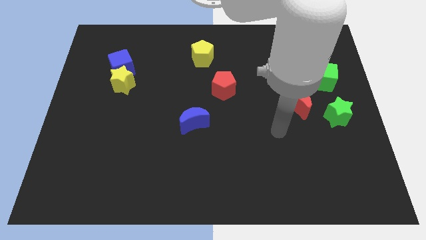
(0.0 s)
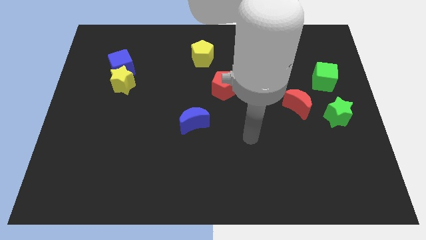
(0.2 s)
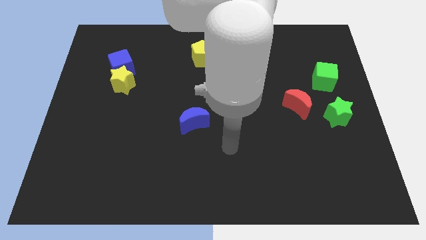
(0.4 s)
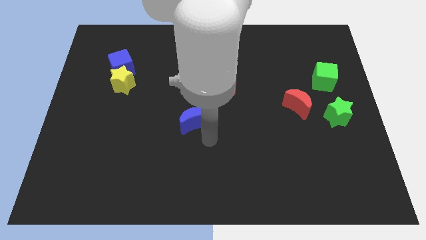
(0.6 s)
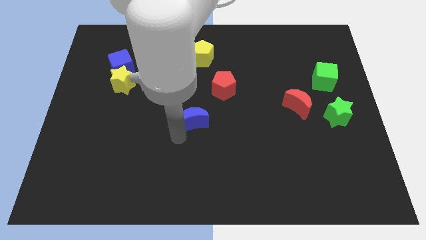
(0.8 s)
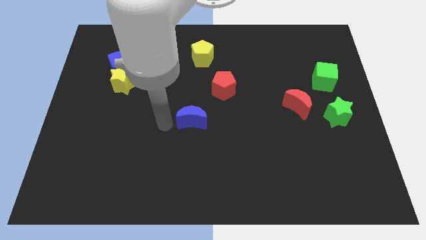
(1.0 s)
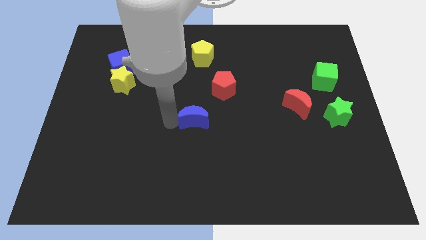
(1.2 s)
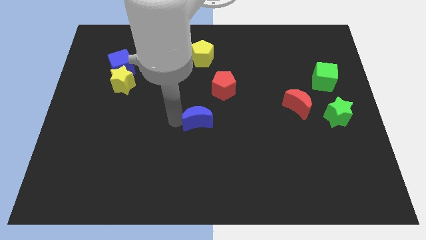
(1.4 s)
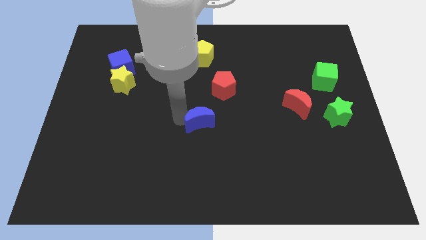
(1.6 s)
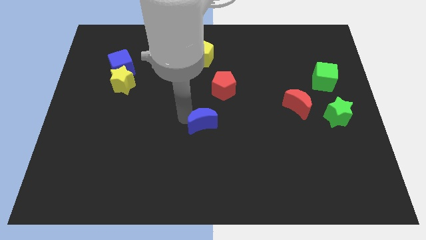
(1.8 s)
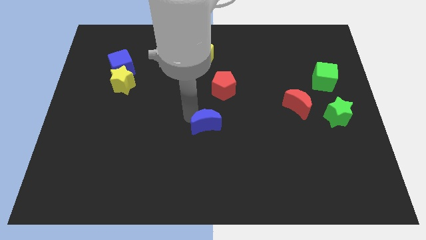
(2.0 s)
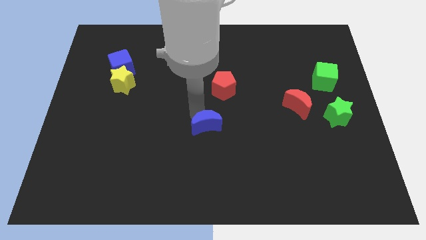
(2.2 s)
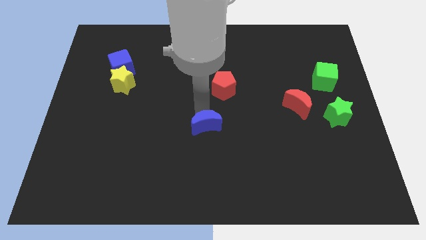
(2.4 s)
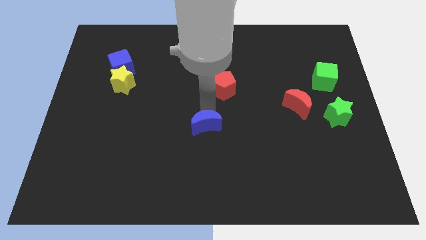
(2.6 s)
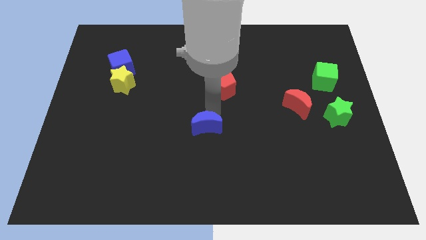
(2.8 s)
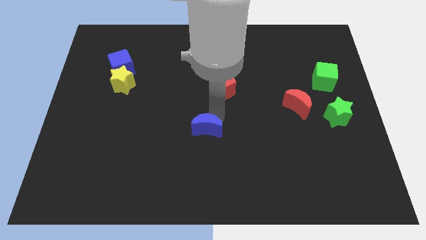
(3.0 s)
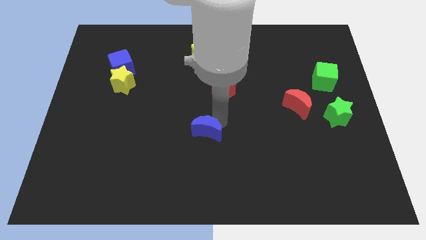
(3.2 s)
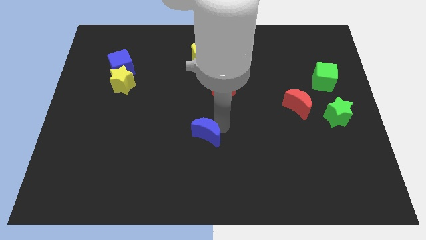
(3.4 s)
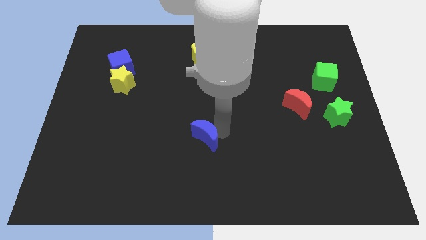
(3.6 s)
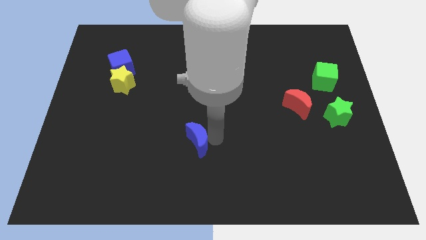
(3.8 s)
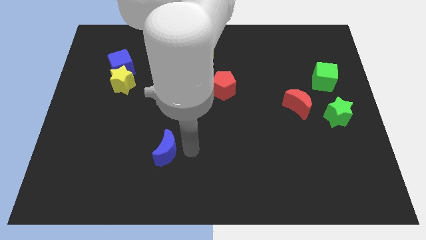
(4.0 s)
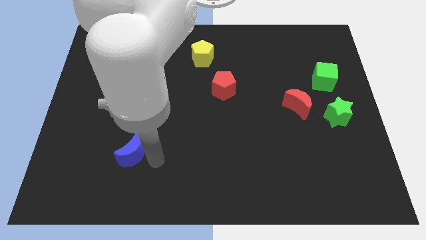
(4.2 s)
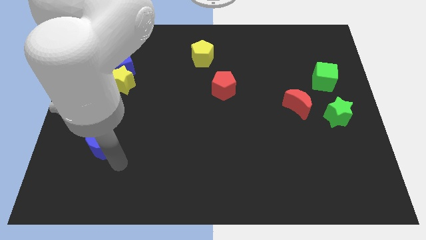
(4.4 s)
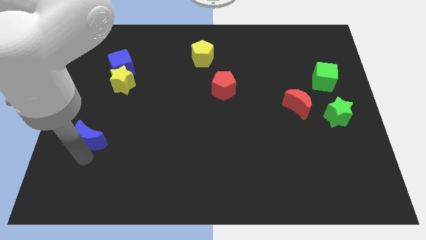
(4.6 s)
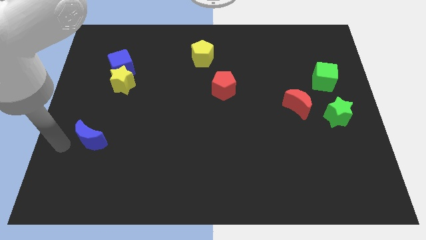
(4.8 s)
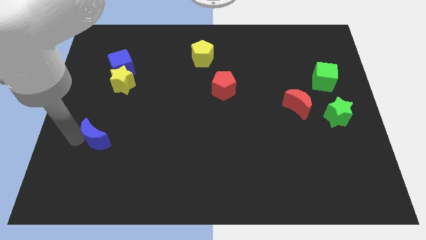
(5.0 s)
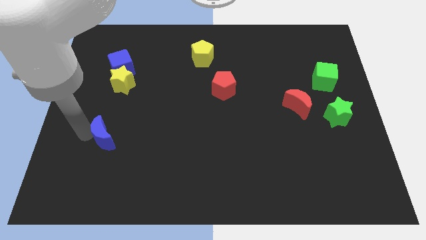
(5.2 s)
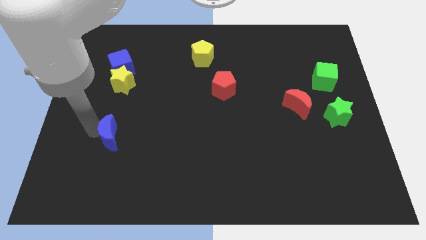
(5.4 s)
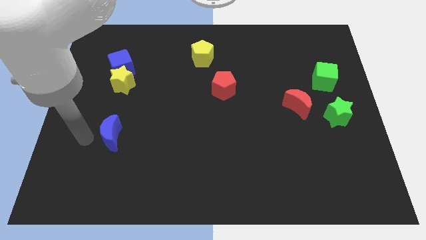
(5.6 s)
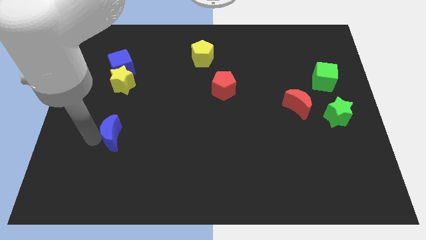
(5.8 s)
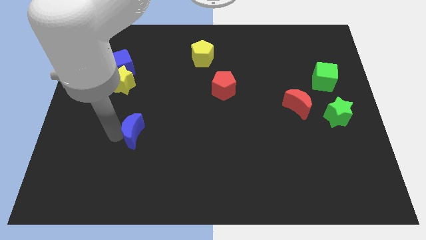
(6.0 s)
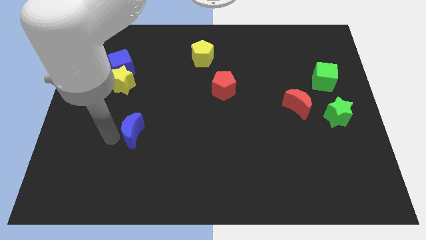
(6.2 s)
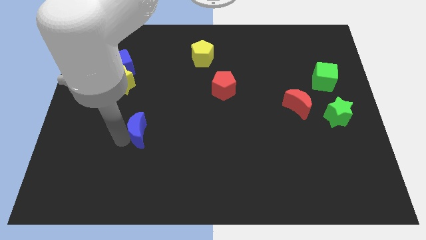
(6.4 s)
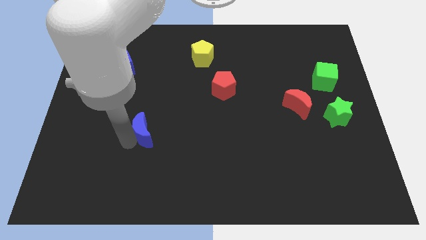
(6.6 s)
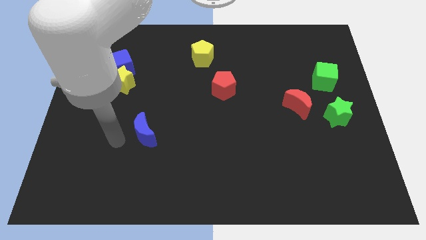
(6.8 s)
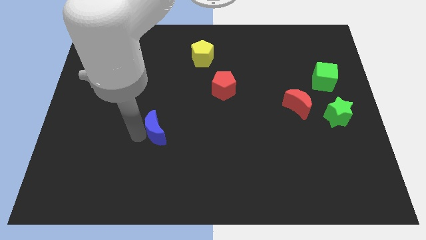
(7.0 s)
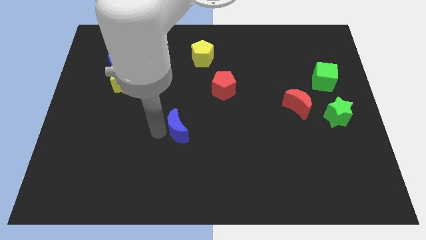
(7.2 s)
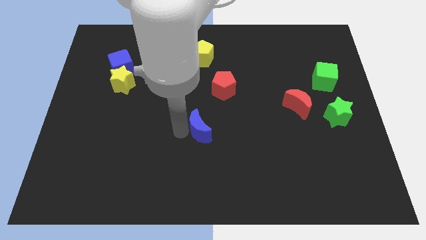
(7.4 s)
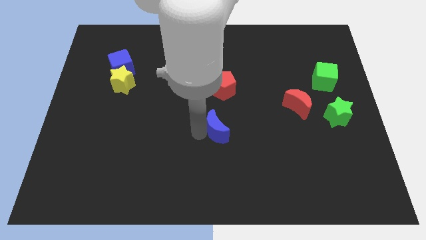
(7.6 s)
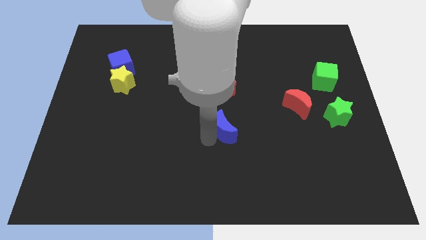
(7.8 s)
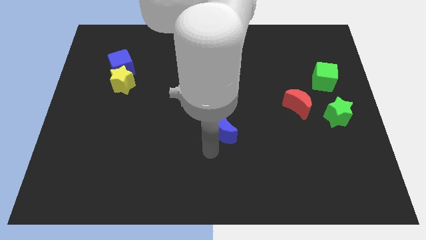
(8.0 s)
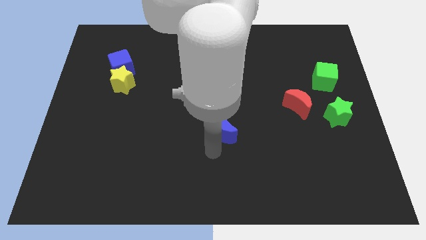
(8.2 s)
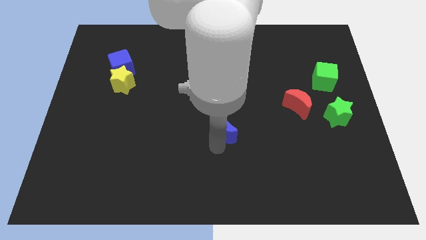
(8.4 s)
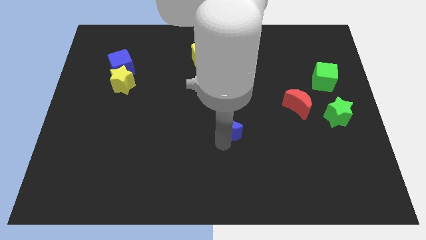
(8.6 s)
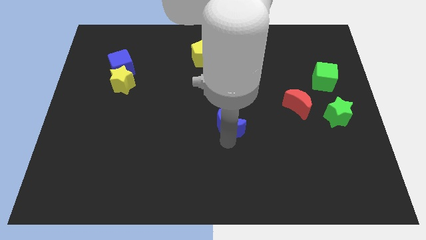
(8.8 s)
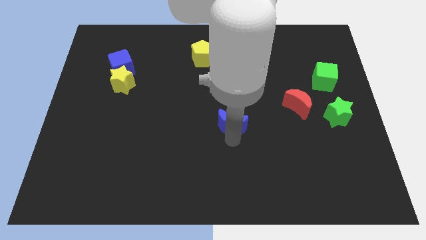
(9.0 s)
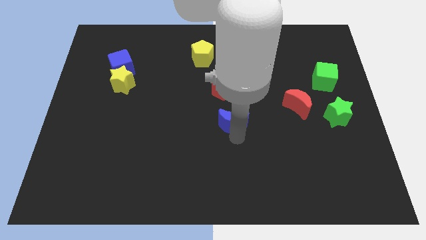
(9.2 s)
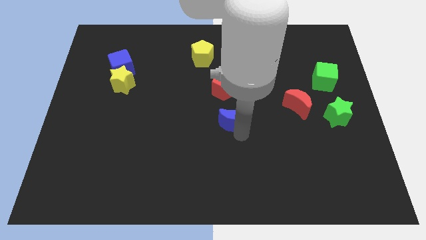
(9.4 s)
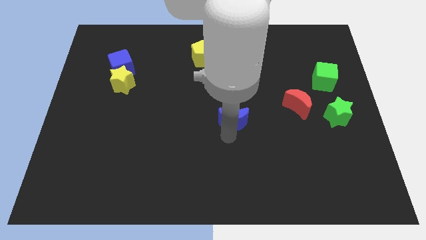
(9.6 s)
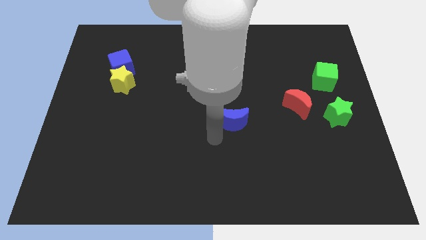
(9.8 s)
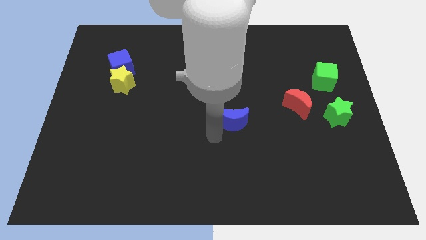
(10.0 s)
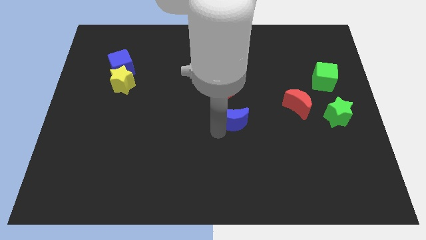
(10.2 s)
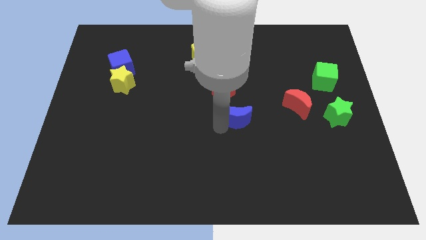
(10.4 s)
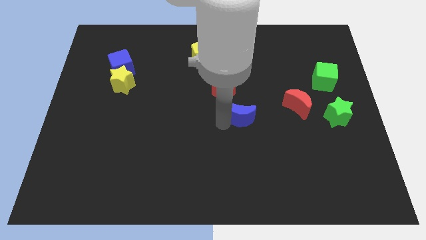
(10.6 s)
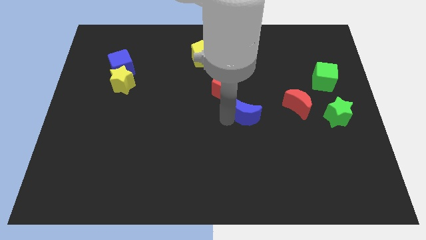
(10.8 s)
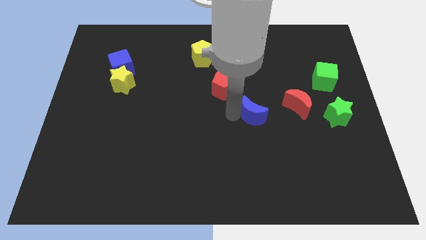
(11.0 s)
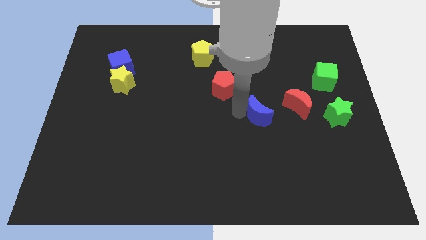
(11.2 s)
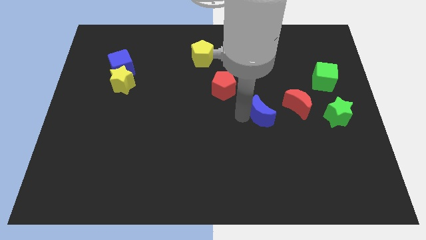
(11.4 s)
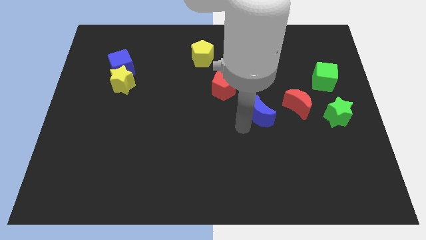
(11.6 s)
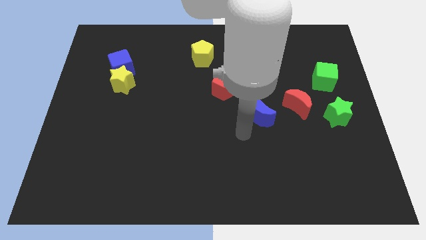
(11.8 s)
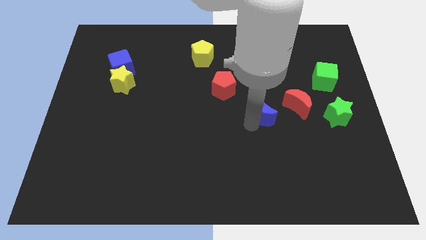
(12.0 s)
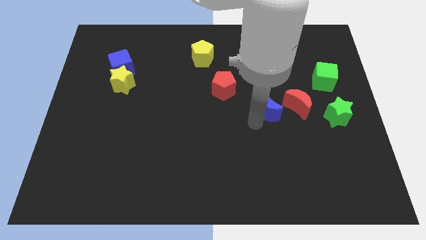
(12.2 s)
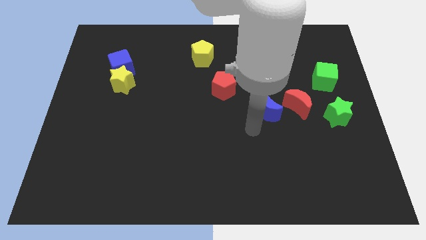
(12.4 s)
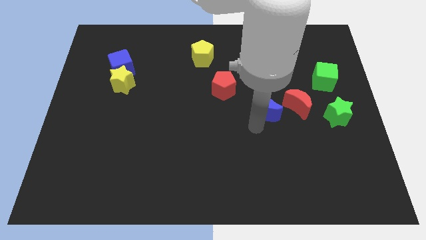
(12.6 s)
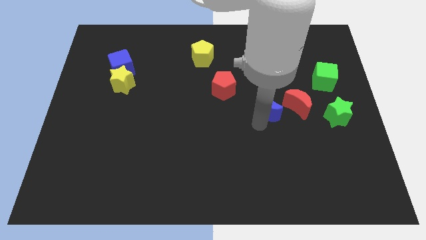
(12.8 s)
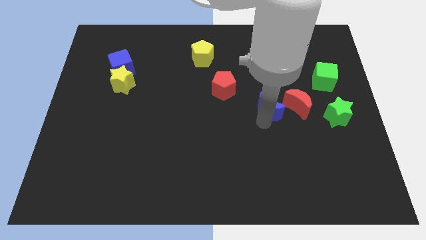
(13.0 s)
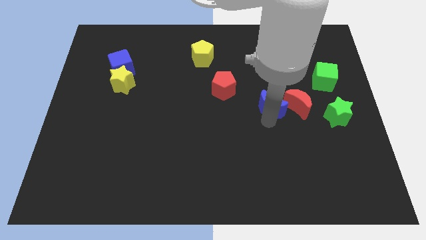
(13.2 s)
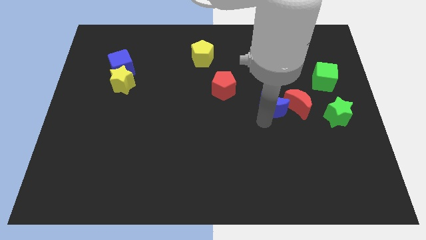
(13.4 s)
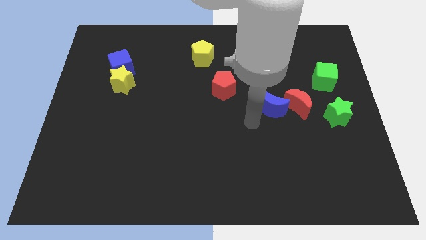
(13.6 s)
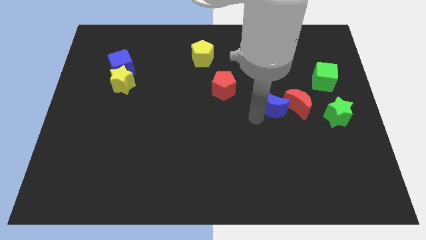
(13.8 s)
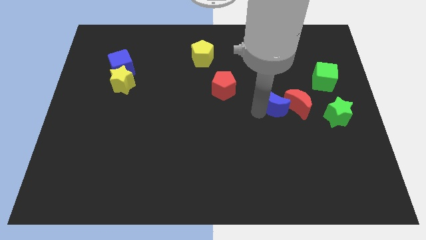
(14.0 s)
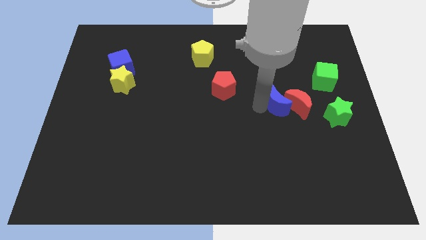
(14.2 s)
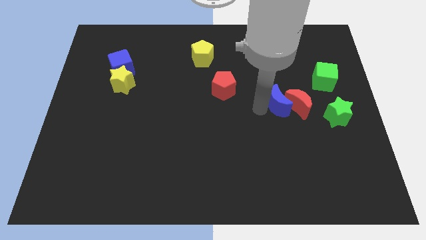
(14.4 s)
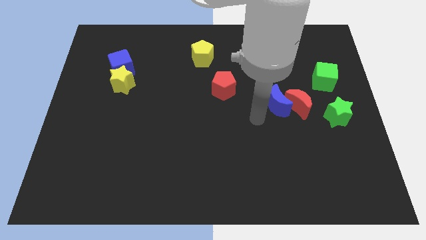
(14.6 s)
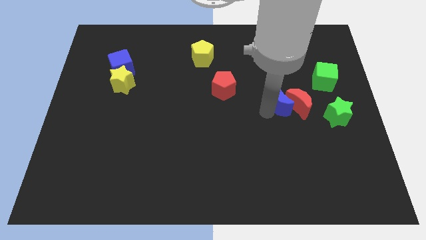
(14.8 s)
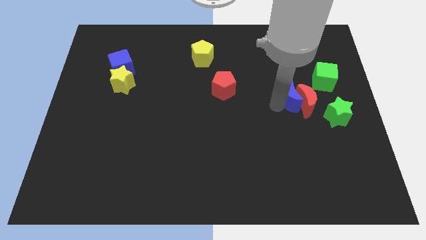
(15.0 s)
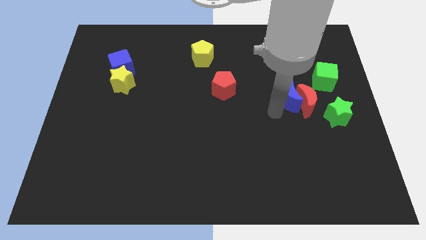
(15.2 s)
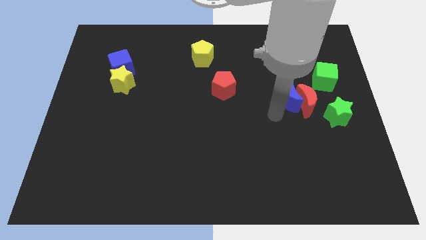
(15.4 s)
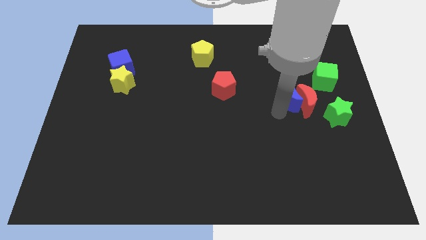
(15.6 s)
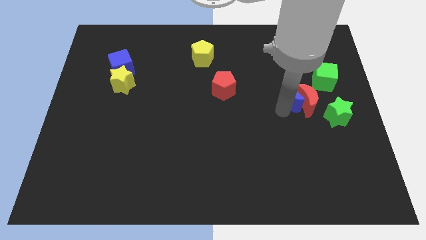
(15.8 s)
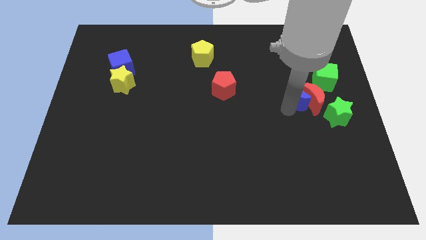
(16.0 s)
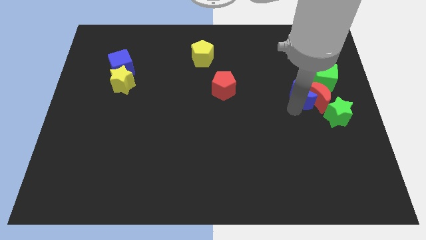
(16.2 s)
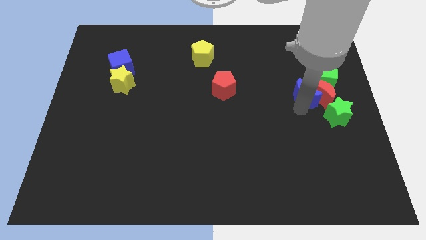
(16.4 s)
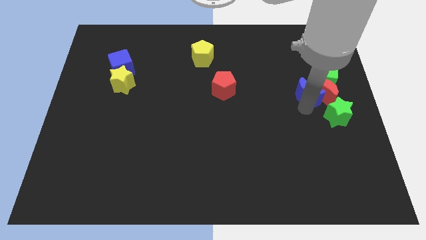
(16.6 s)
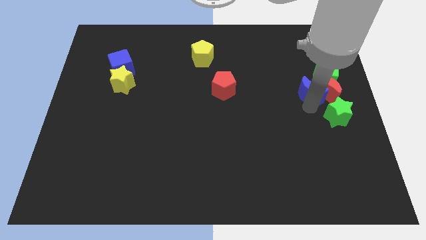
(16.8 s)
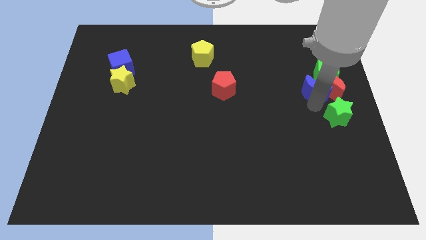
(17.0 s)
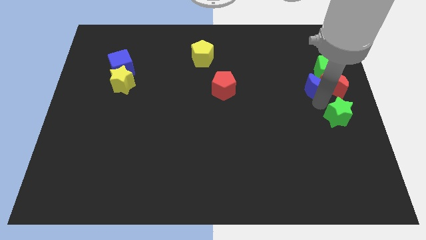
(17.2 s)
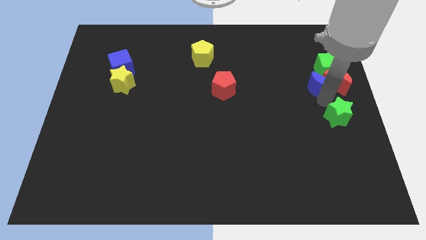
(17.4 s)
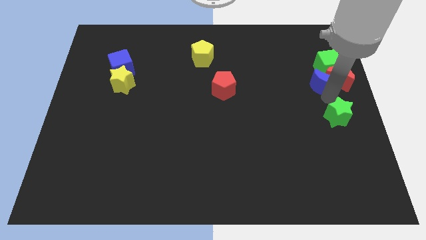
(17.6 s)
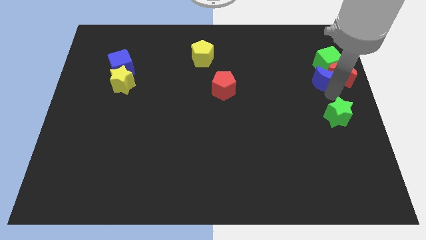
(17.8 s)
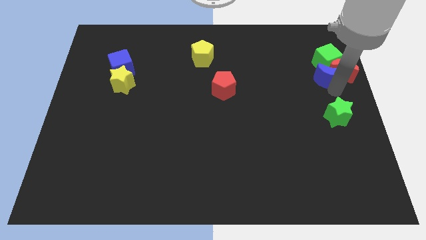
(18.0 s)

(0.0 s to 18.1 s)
move the blue moon to the green cube
